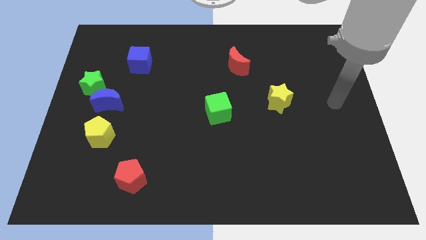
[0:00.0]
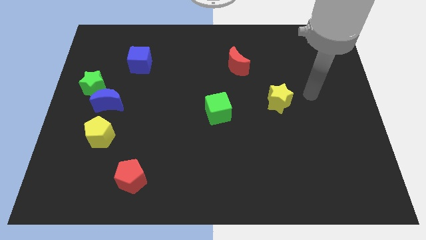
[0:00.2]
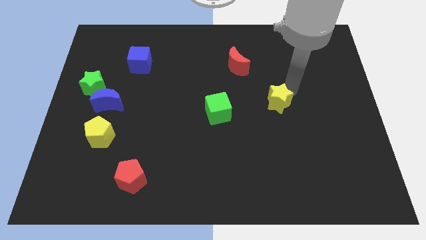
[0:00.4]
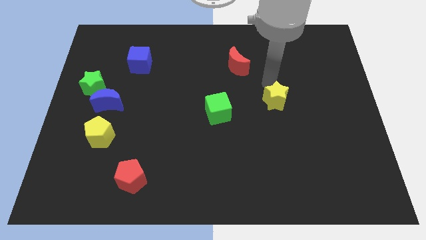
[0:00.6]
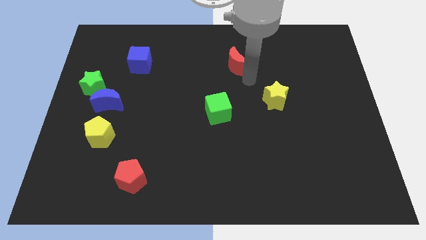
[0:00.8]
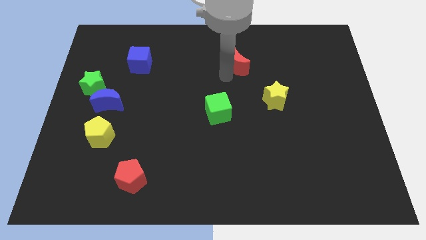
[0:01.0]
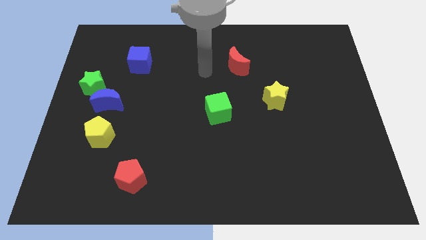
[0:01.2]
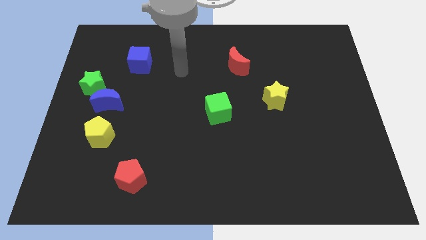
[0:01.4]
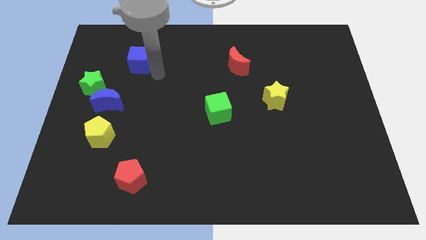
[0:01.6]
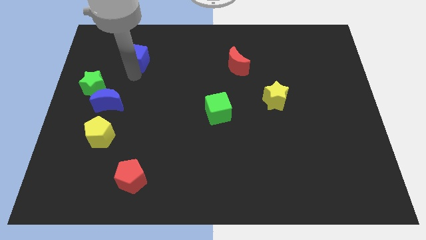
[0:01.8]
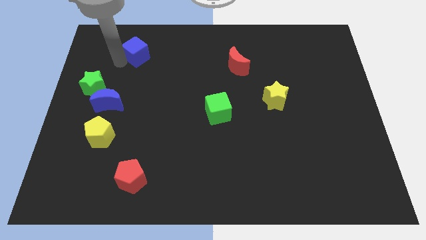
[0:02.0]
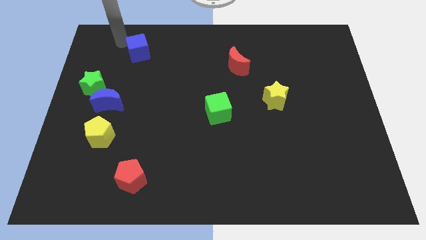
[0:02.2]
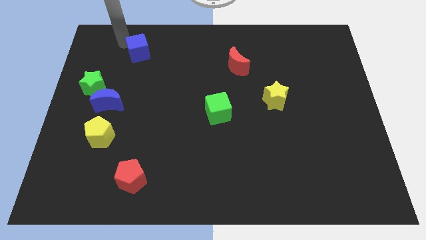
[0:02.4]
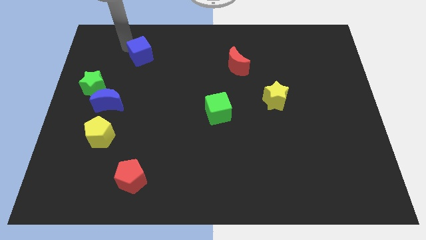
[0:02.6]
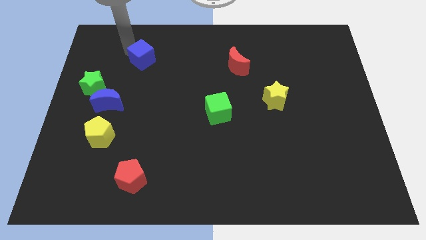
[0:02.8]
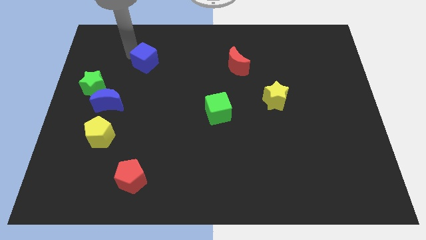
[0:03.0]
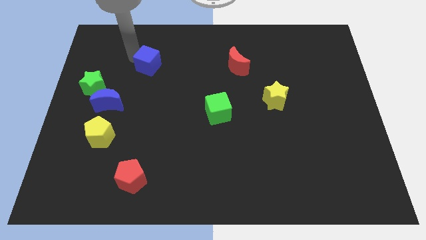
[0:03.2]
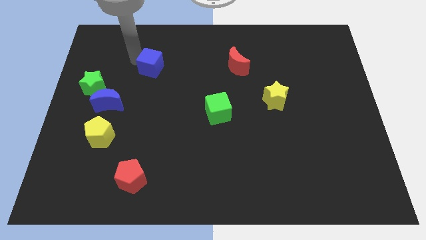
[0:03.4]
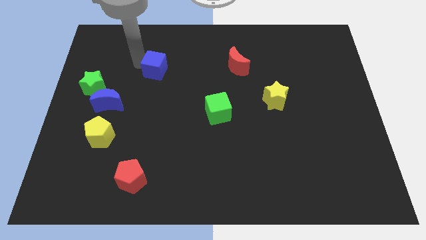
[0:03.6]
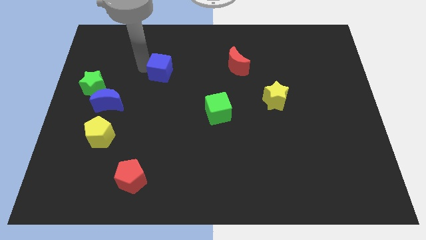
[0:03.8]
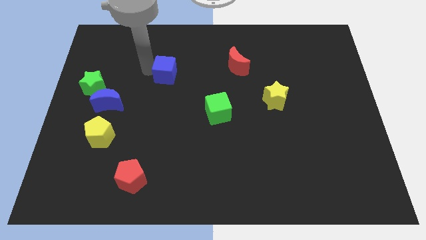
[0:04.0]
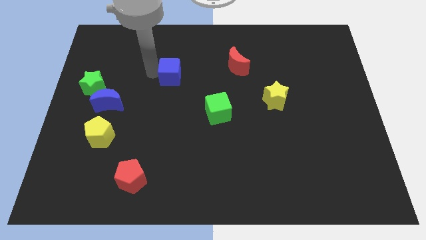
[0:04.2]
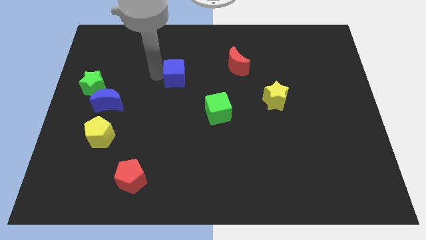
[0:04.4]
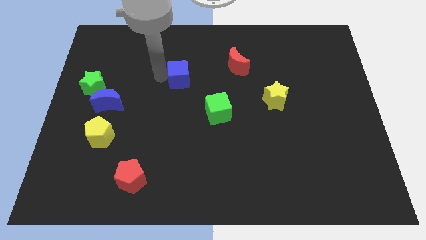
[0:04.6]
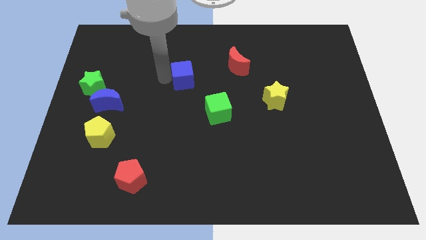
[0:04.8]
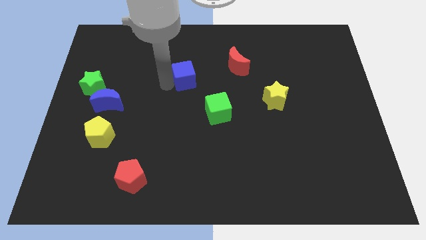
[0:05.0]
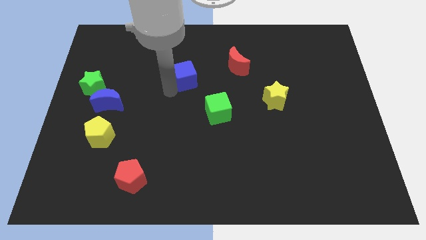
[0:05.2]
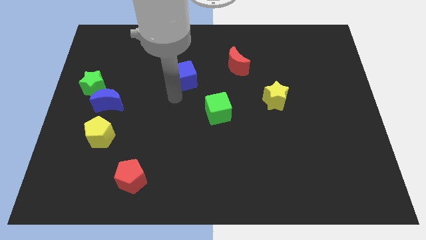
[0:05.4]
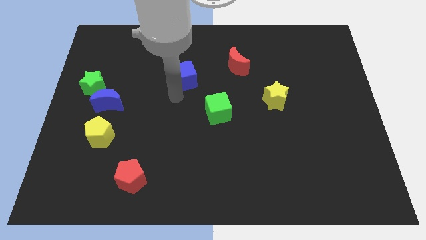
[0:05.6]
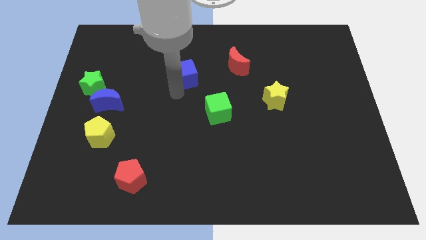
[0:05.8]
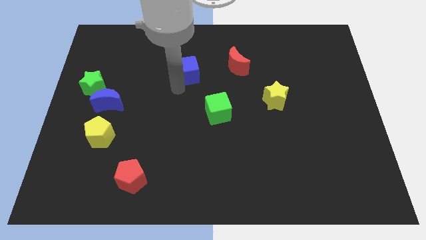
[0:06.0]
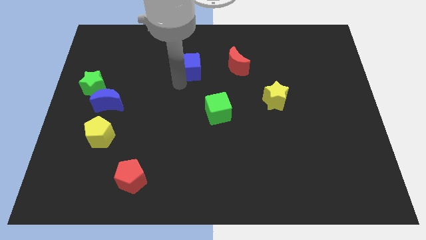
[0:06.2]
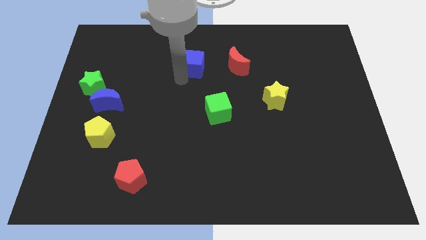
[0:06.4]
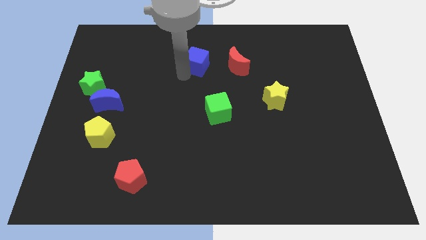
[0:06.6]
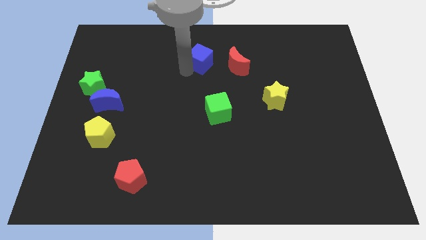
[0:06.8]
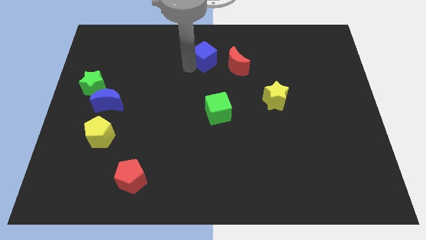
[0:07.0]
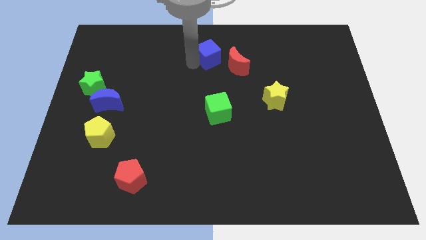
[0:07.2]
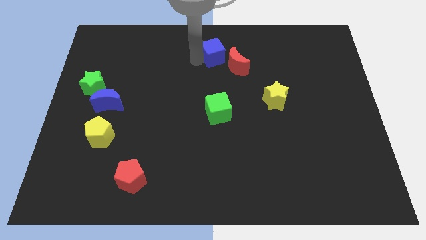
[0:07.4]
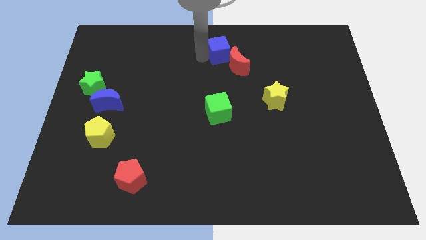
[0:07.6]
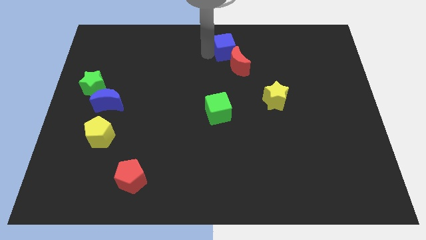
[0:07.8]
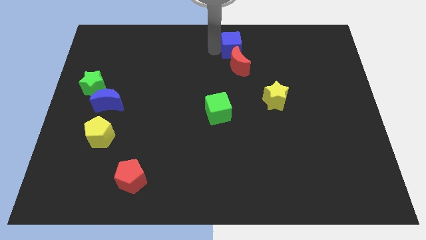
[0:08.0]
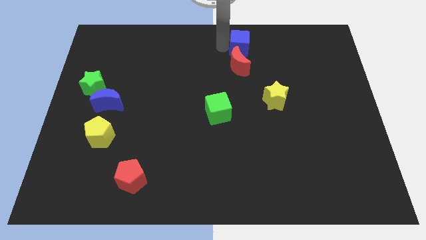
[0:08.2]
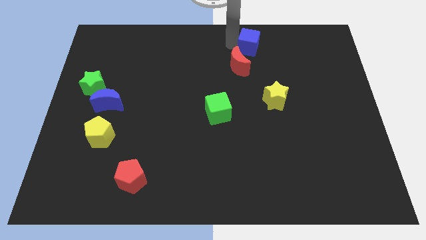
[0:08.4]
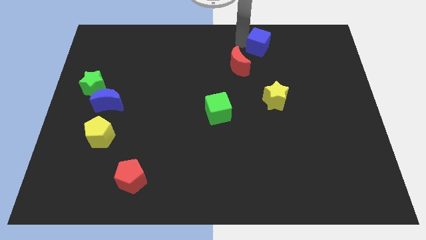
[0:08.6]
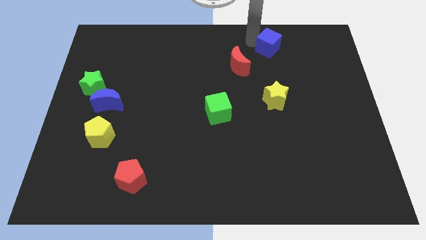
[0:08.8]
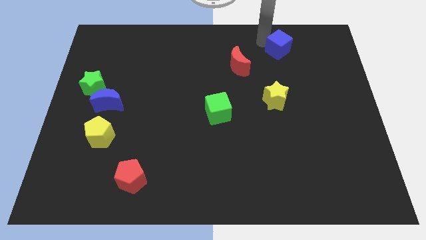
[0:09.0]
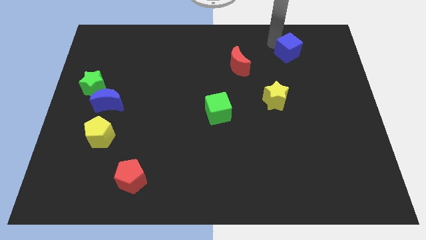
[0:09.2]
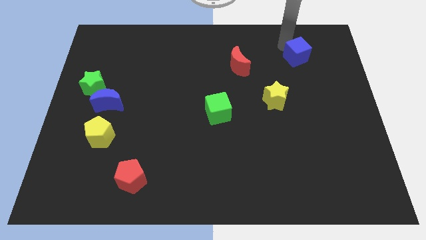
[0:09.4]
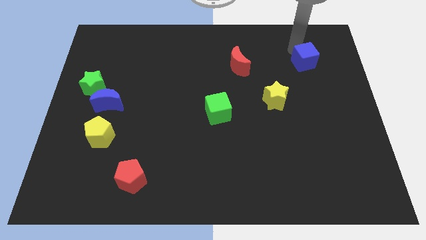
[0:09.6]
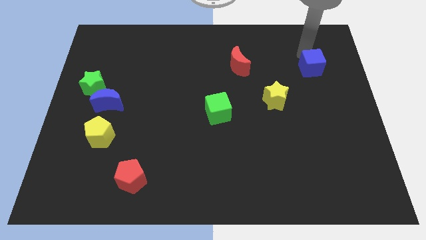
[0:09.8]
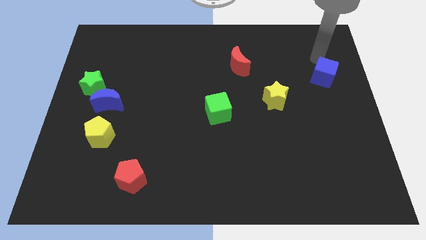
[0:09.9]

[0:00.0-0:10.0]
slide the blue cube to the right side

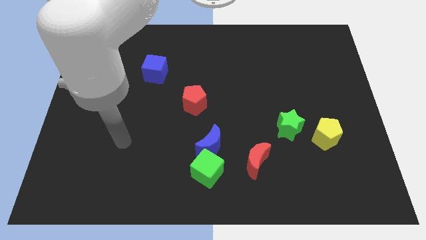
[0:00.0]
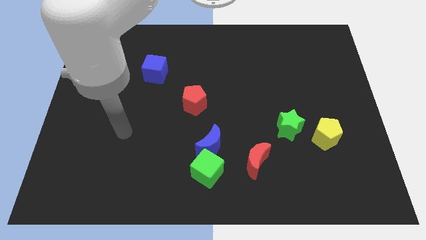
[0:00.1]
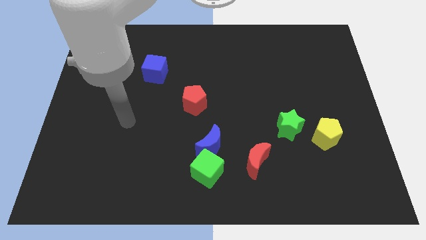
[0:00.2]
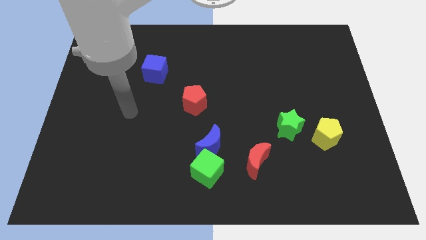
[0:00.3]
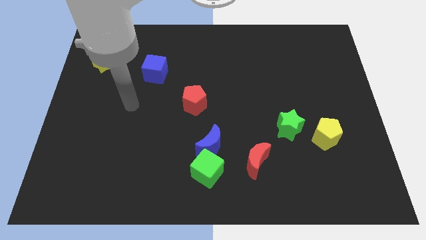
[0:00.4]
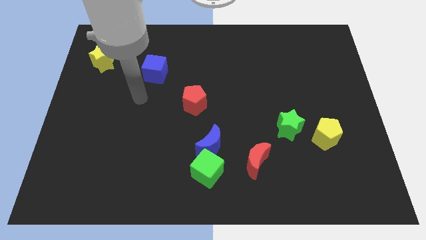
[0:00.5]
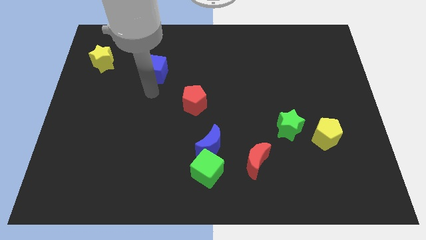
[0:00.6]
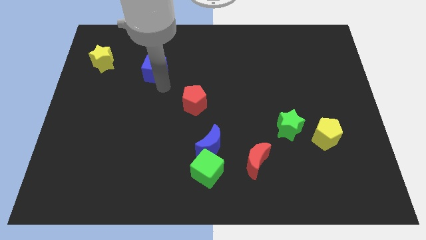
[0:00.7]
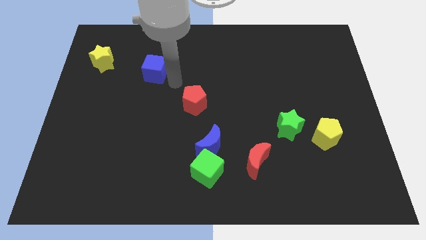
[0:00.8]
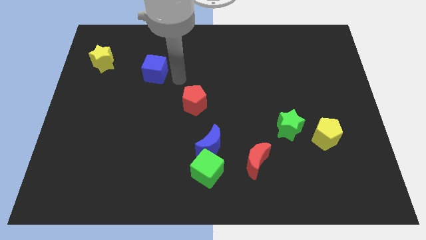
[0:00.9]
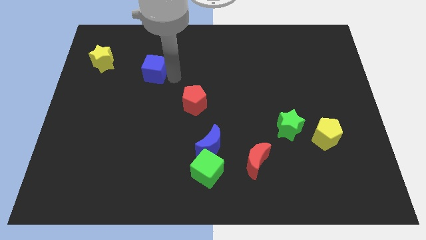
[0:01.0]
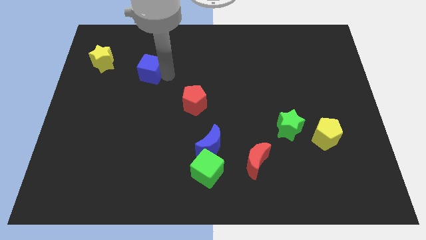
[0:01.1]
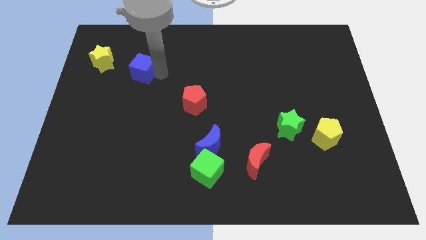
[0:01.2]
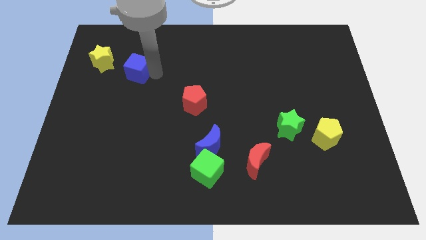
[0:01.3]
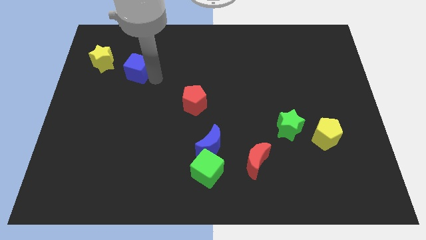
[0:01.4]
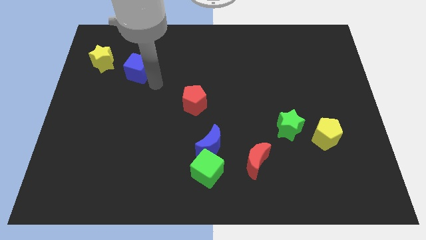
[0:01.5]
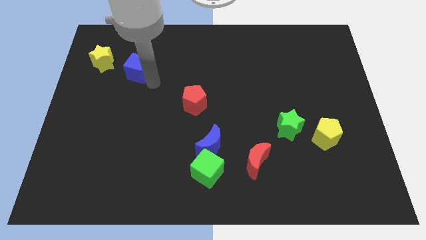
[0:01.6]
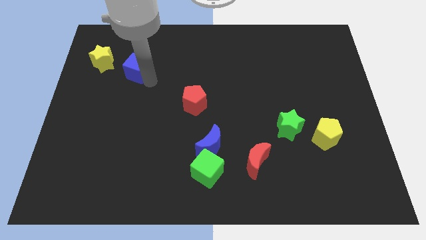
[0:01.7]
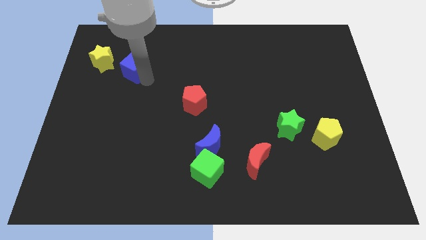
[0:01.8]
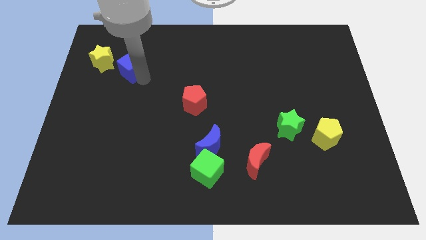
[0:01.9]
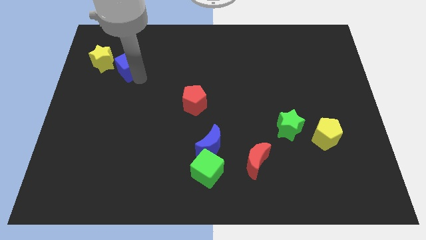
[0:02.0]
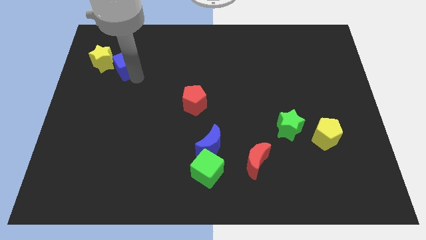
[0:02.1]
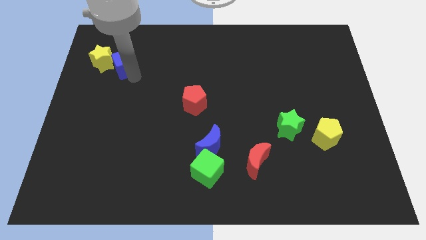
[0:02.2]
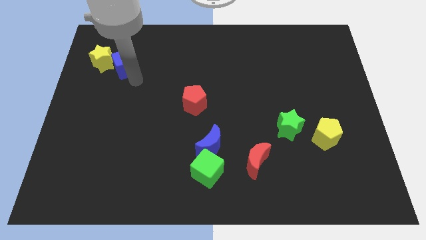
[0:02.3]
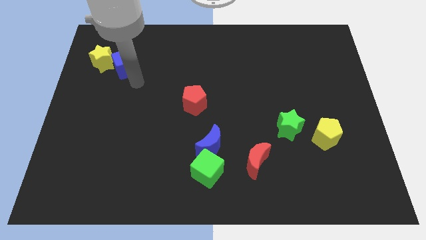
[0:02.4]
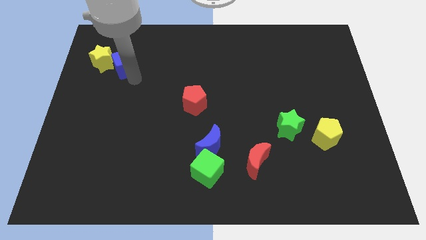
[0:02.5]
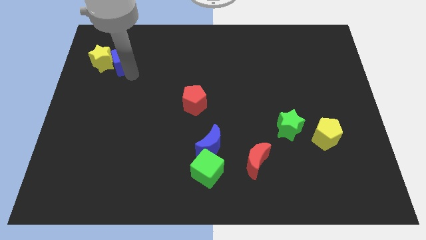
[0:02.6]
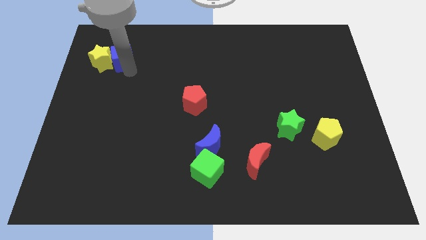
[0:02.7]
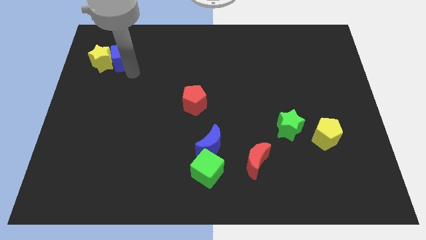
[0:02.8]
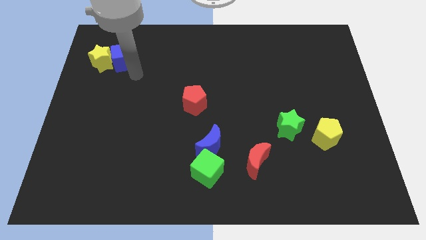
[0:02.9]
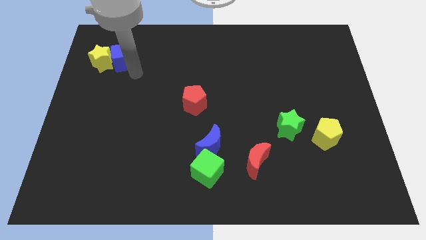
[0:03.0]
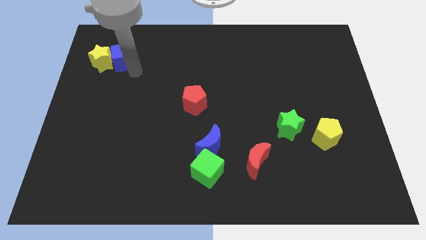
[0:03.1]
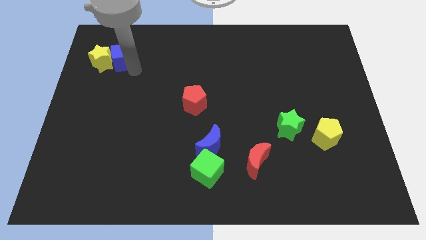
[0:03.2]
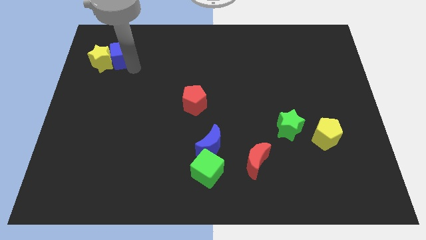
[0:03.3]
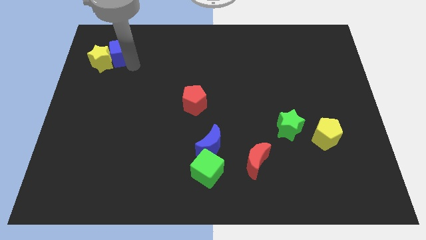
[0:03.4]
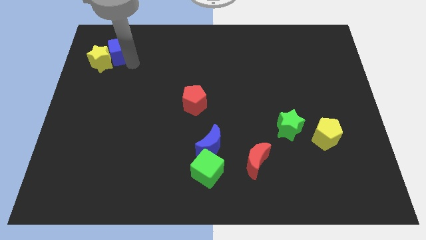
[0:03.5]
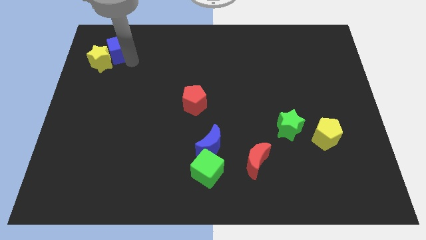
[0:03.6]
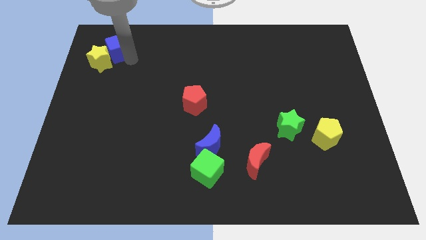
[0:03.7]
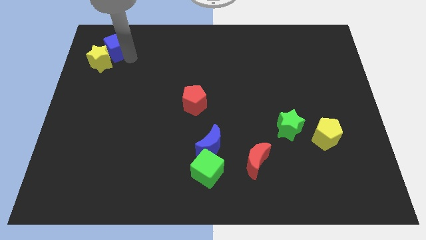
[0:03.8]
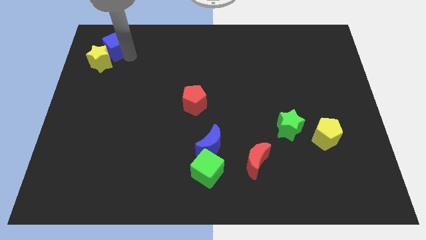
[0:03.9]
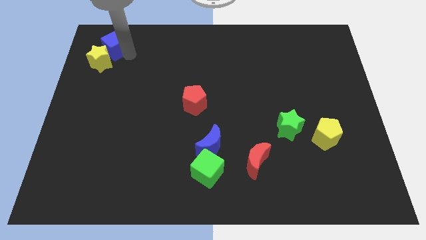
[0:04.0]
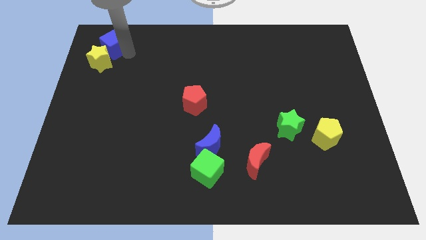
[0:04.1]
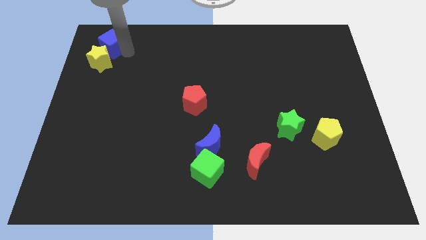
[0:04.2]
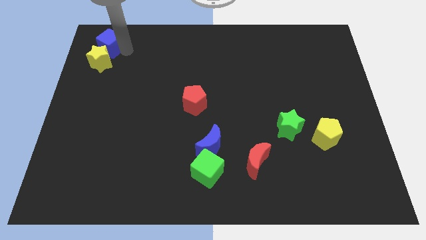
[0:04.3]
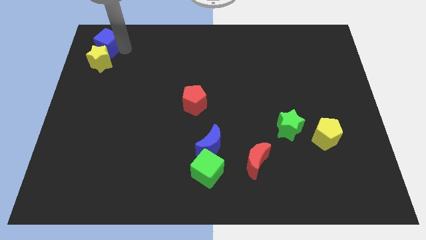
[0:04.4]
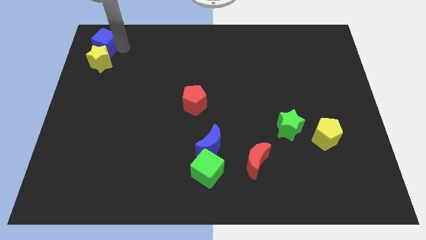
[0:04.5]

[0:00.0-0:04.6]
move the blue cube to the top left of the board
